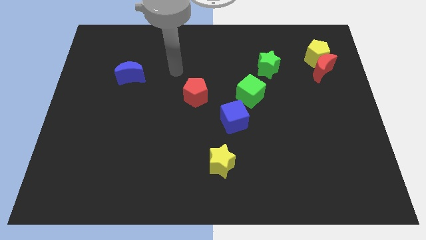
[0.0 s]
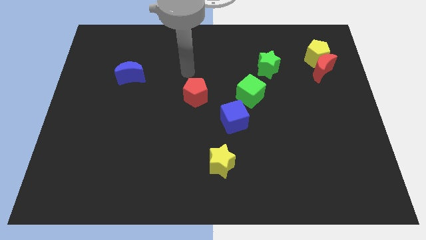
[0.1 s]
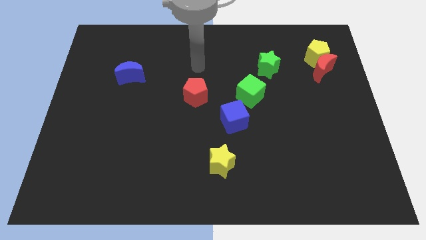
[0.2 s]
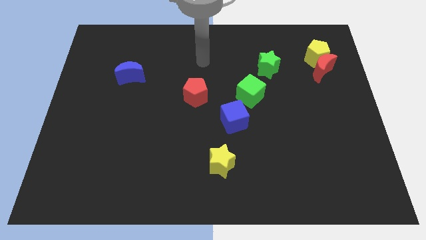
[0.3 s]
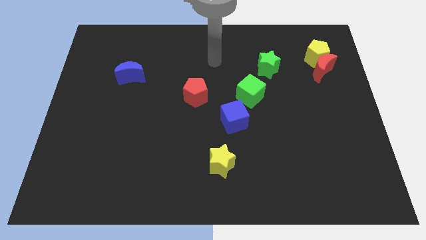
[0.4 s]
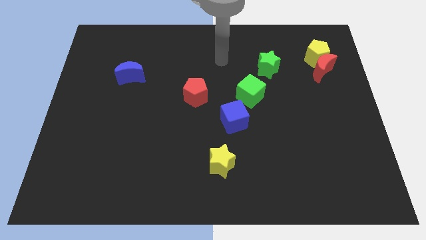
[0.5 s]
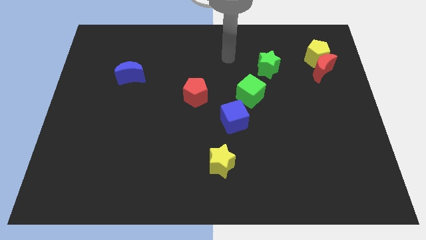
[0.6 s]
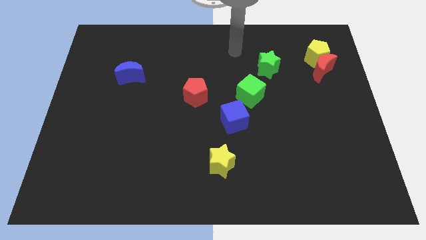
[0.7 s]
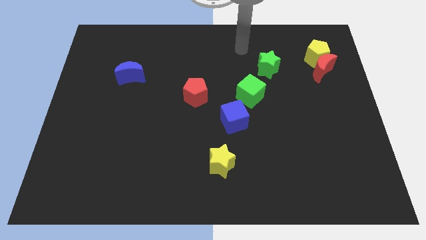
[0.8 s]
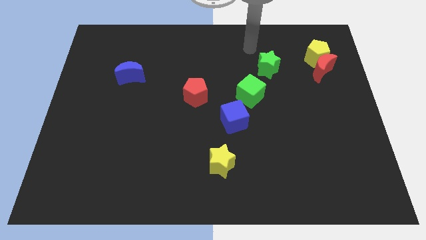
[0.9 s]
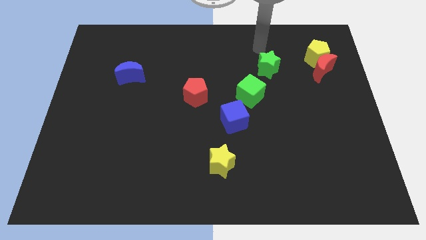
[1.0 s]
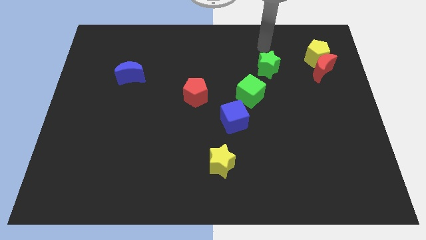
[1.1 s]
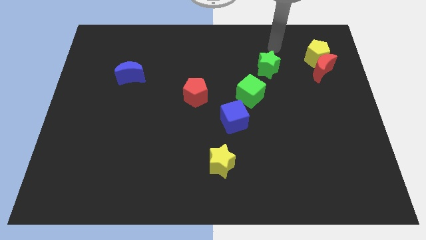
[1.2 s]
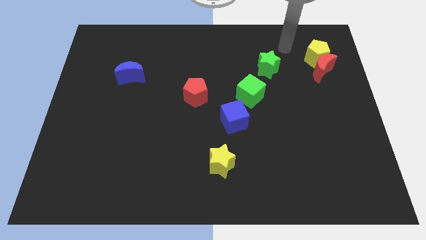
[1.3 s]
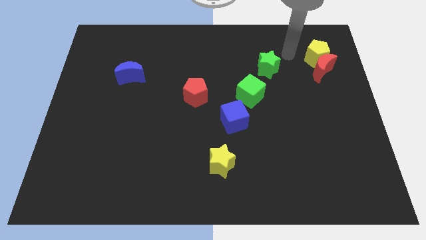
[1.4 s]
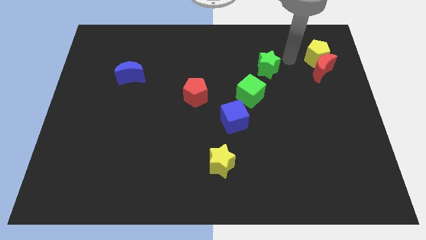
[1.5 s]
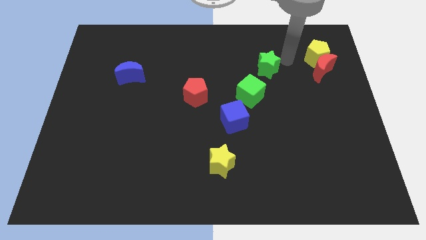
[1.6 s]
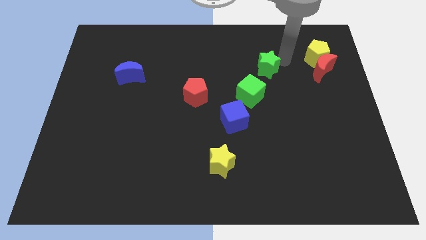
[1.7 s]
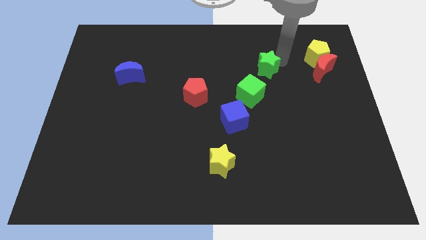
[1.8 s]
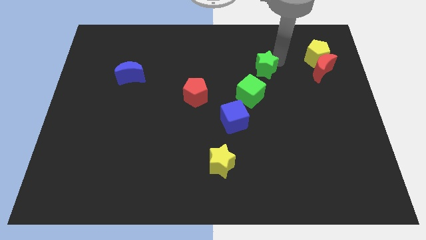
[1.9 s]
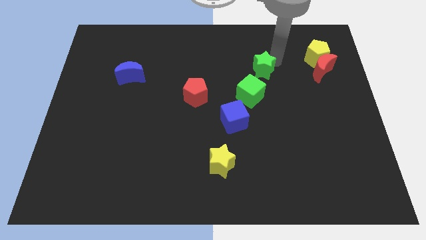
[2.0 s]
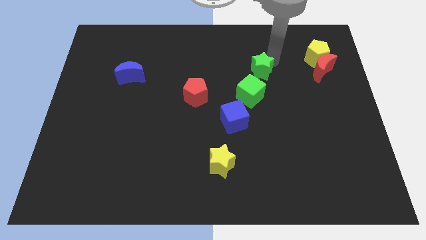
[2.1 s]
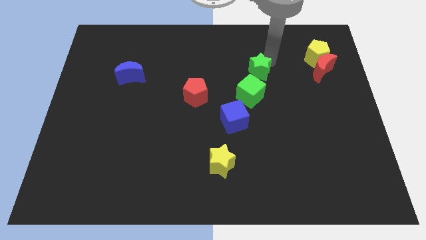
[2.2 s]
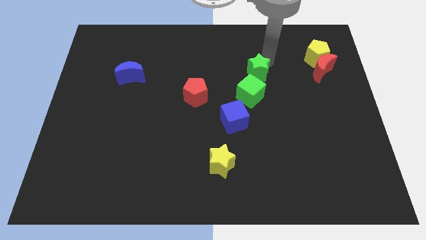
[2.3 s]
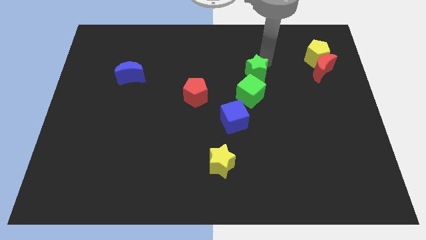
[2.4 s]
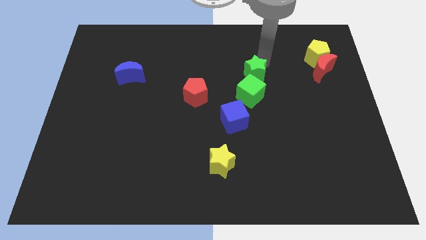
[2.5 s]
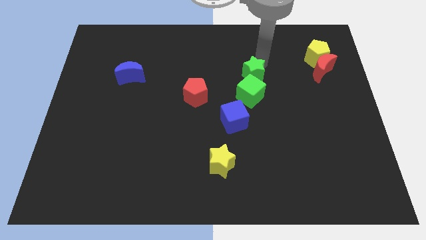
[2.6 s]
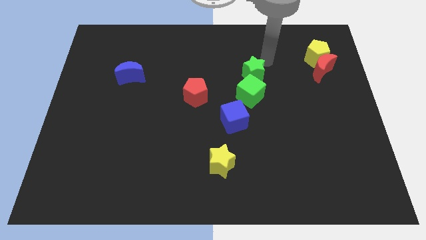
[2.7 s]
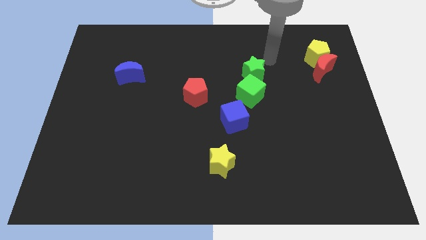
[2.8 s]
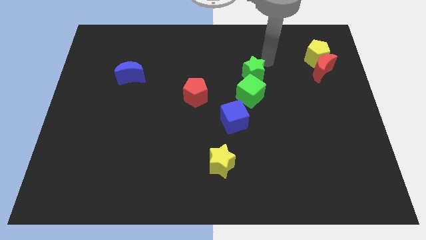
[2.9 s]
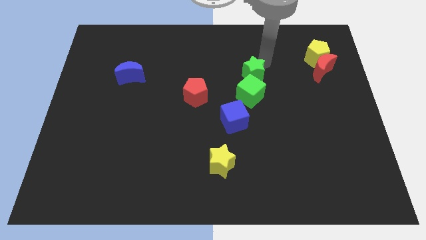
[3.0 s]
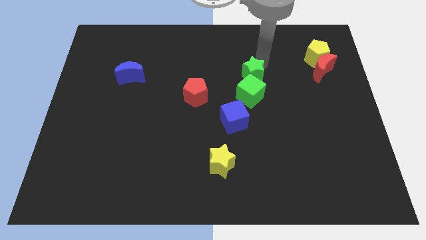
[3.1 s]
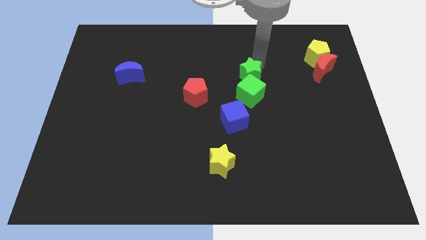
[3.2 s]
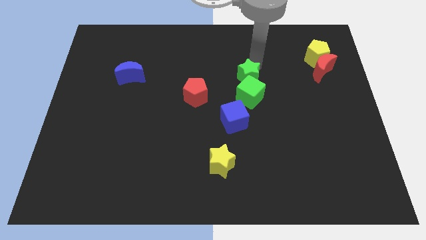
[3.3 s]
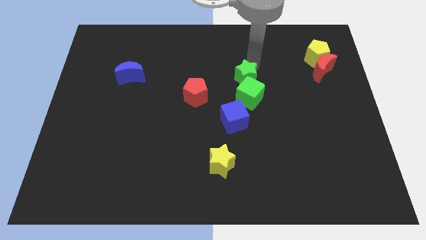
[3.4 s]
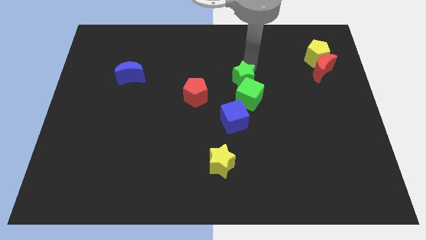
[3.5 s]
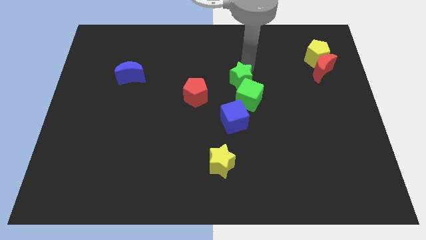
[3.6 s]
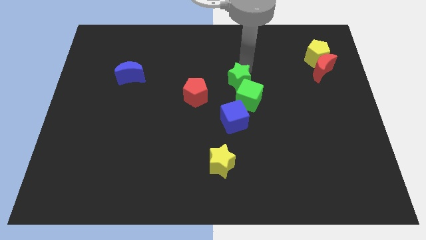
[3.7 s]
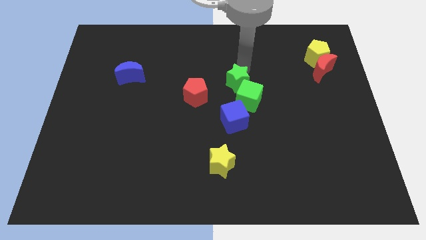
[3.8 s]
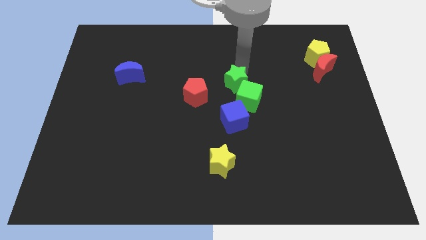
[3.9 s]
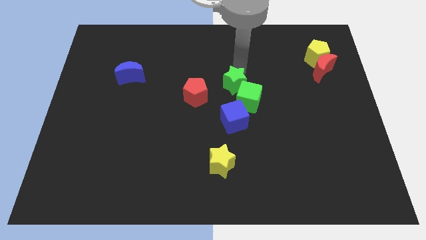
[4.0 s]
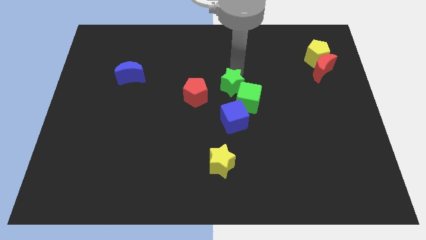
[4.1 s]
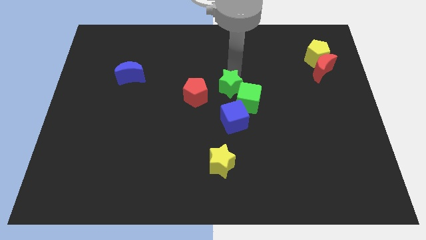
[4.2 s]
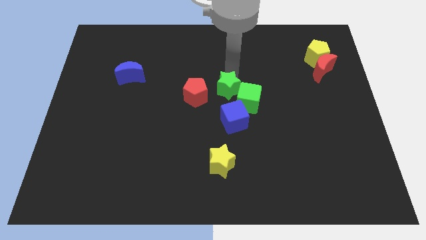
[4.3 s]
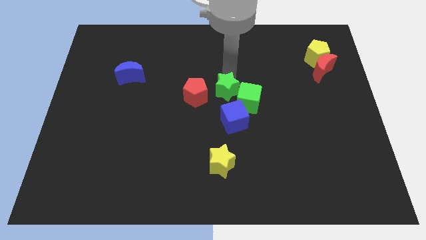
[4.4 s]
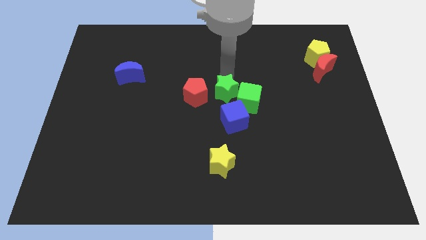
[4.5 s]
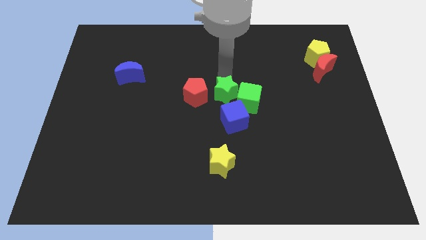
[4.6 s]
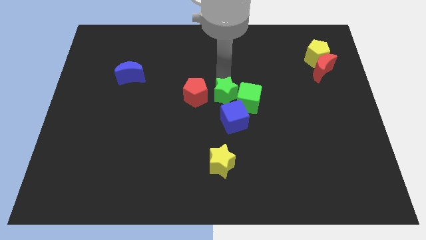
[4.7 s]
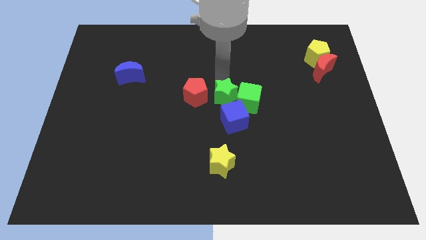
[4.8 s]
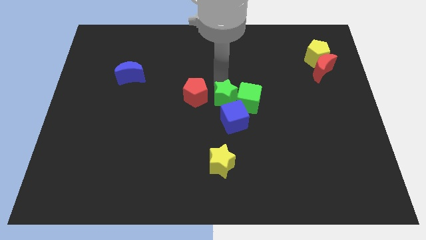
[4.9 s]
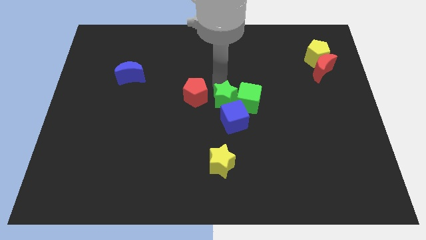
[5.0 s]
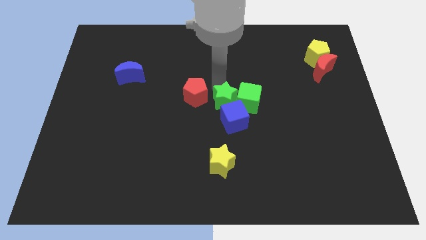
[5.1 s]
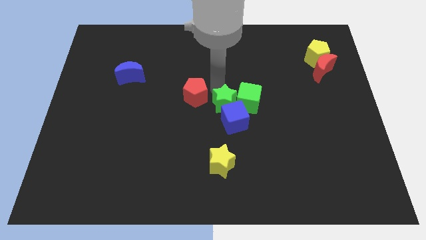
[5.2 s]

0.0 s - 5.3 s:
move the green star next to the blue cube

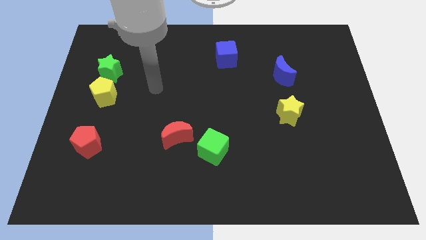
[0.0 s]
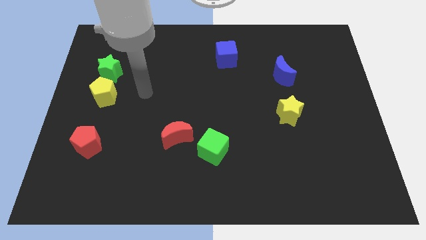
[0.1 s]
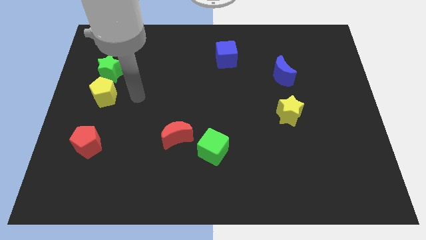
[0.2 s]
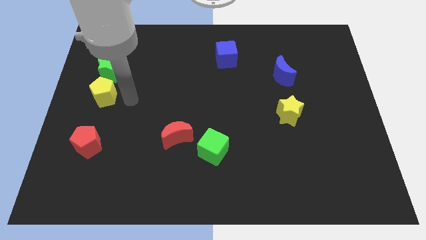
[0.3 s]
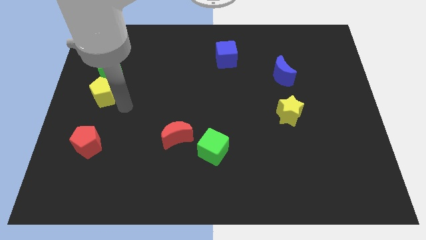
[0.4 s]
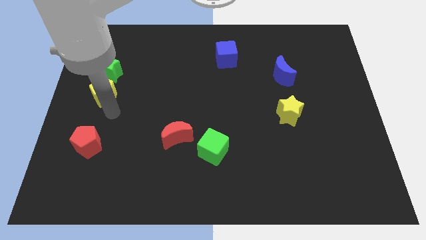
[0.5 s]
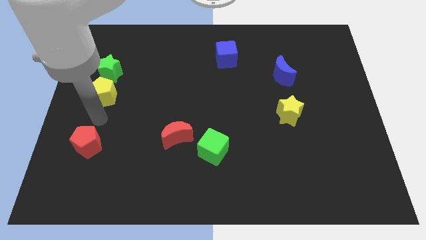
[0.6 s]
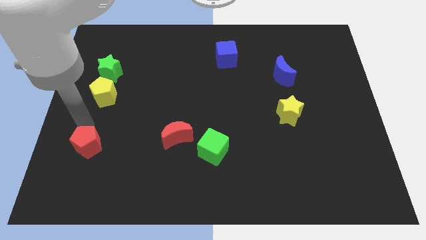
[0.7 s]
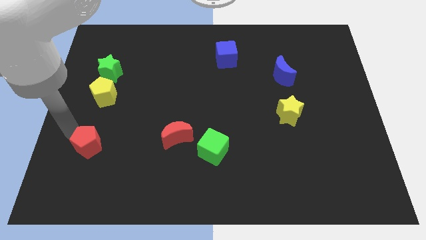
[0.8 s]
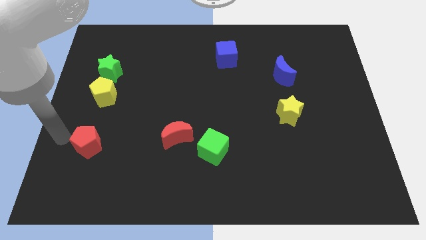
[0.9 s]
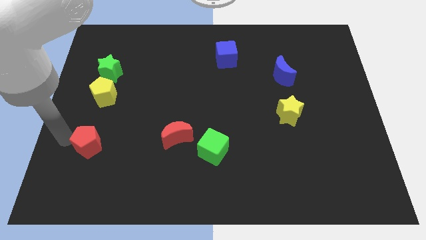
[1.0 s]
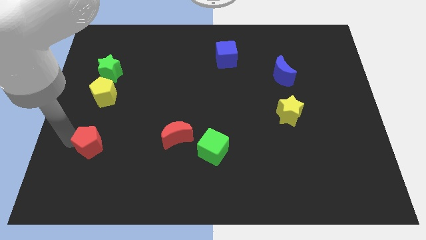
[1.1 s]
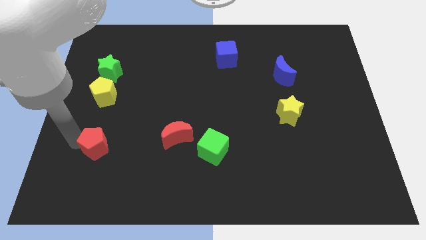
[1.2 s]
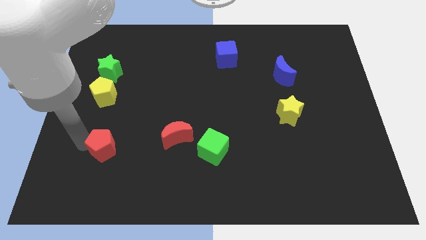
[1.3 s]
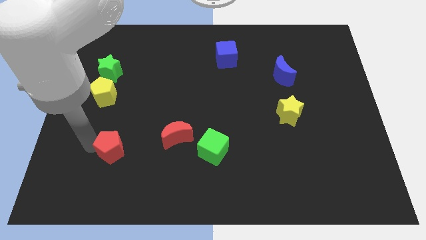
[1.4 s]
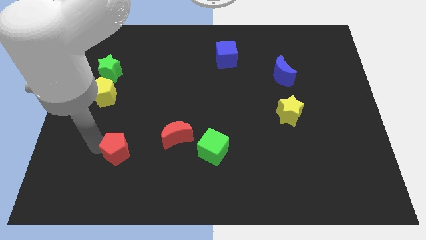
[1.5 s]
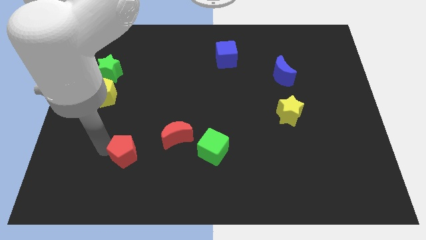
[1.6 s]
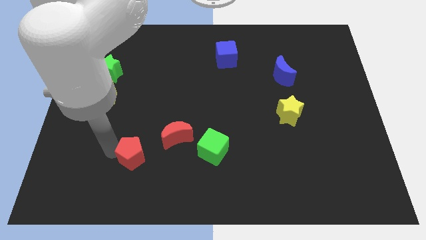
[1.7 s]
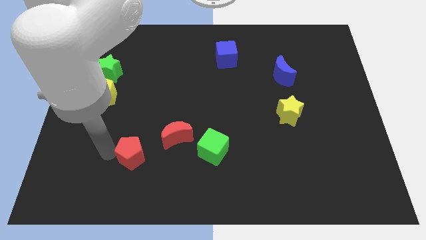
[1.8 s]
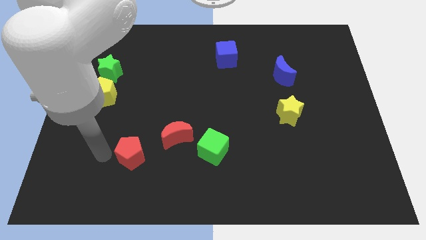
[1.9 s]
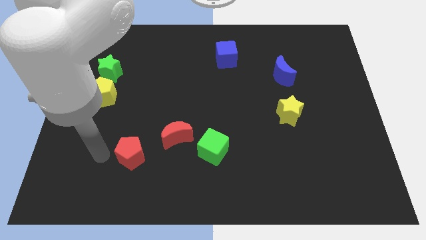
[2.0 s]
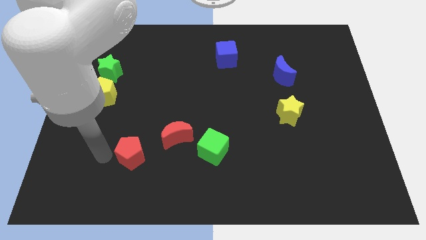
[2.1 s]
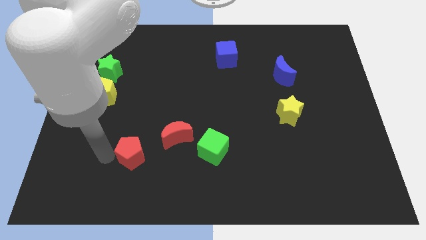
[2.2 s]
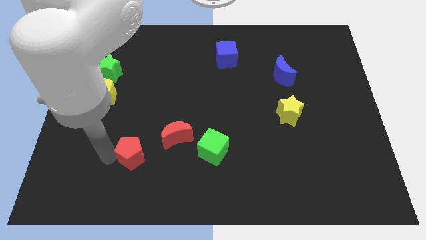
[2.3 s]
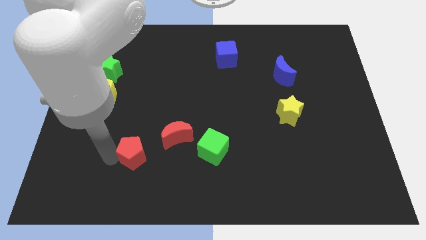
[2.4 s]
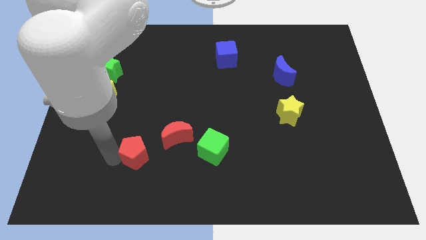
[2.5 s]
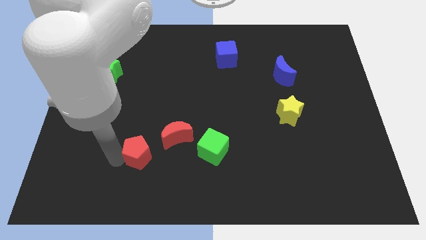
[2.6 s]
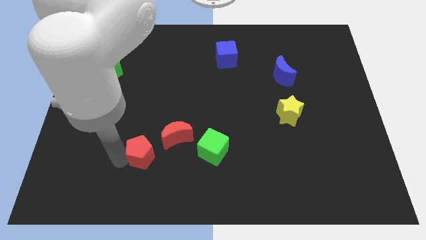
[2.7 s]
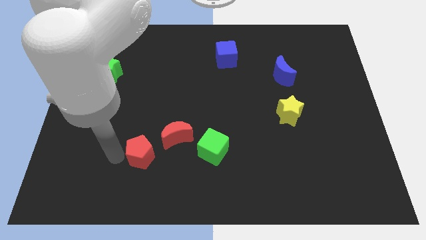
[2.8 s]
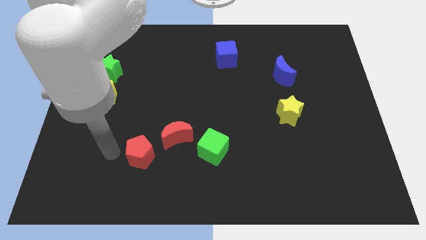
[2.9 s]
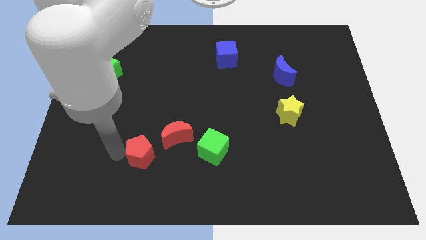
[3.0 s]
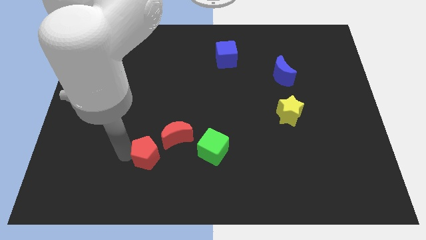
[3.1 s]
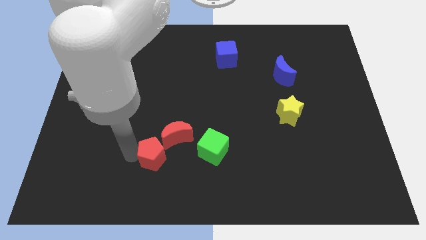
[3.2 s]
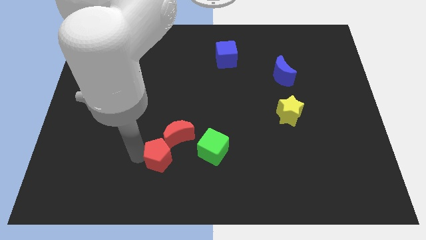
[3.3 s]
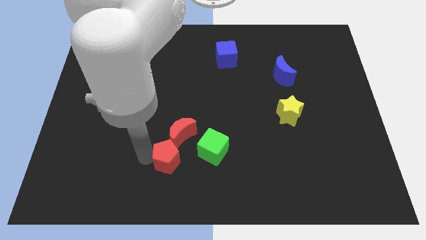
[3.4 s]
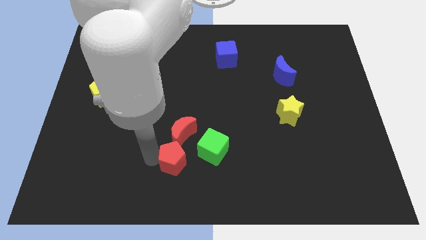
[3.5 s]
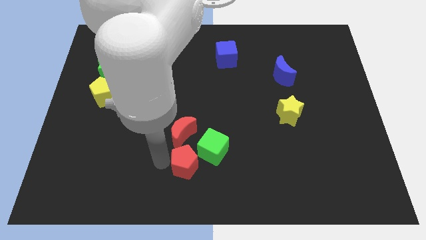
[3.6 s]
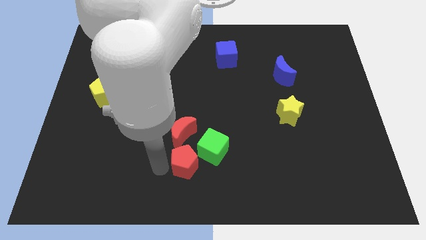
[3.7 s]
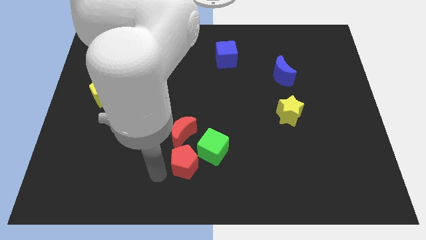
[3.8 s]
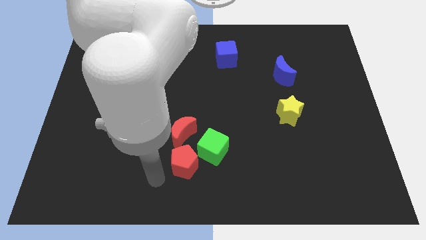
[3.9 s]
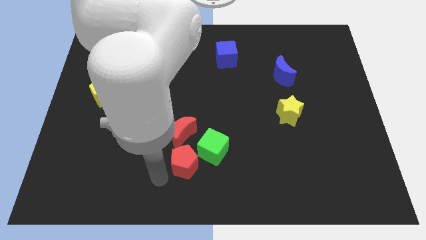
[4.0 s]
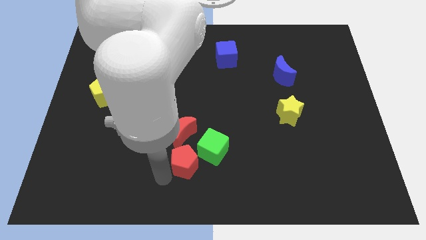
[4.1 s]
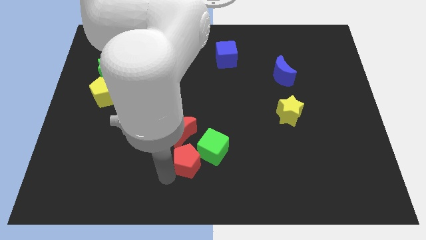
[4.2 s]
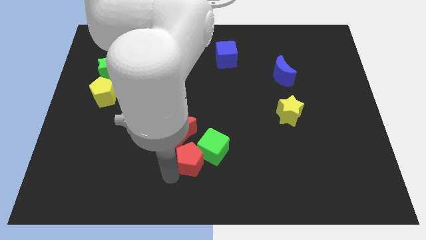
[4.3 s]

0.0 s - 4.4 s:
slide the red pentagon towards the green cube
